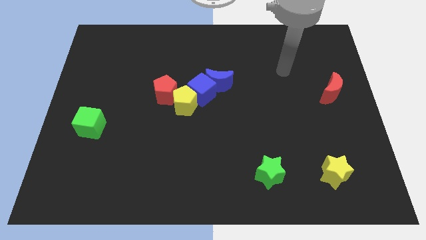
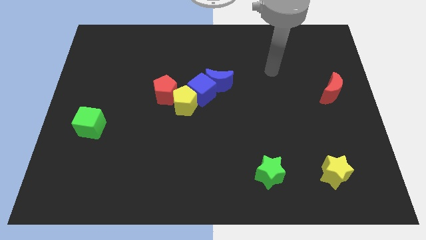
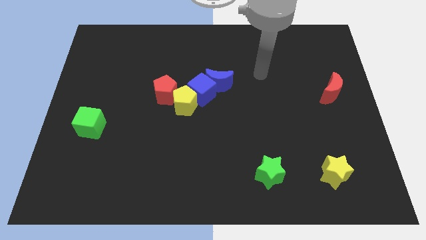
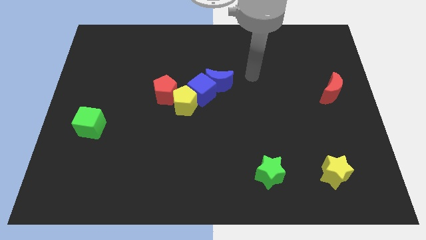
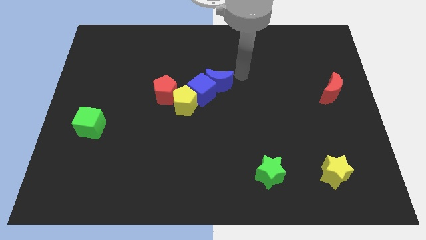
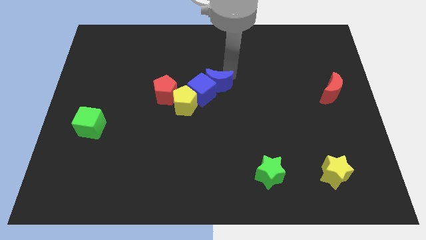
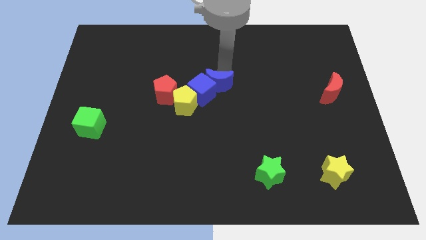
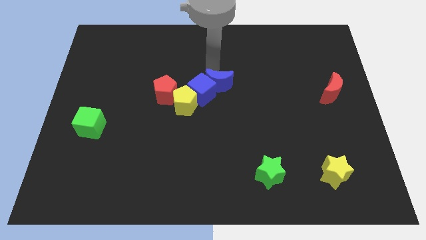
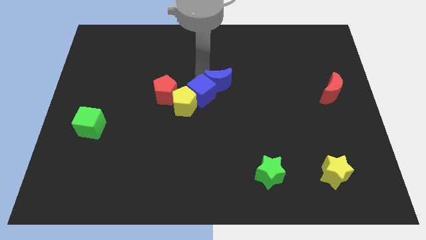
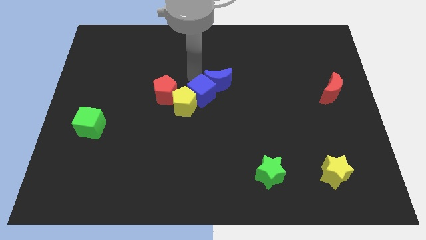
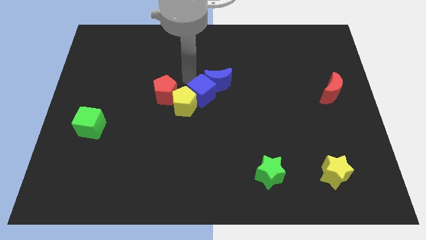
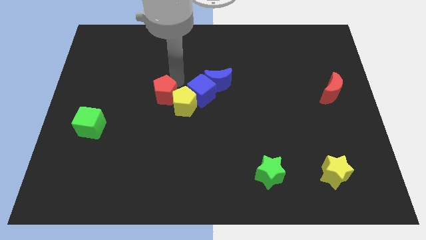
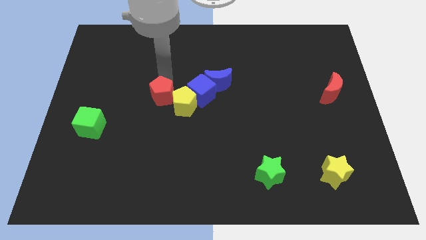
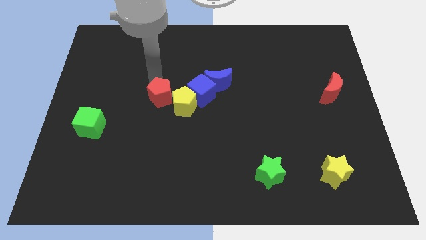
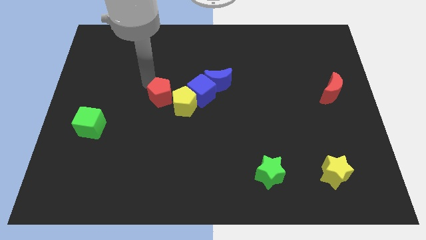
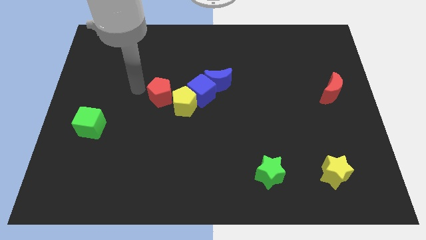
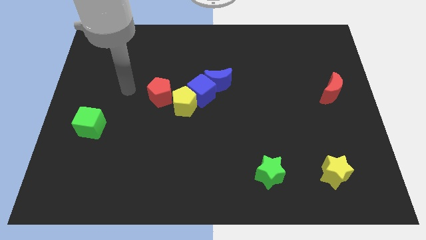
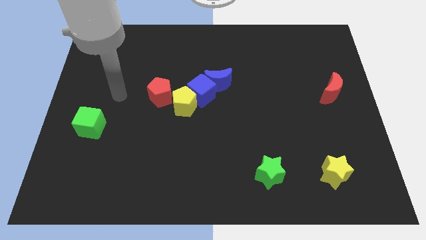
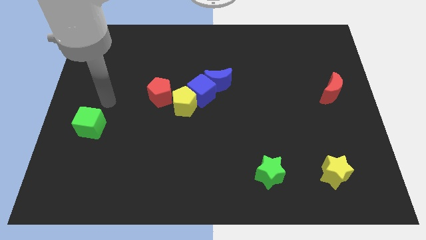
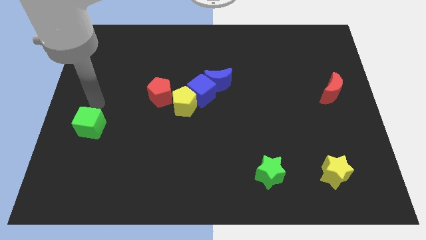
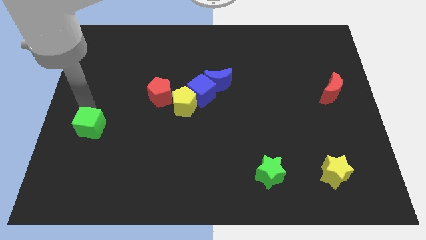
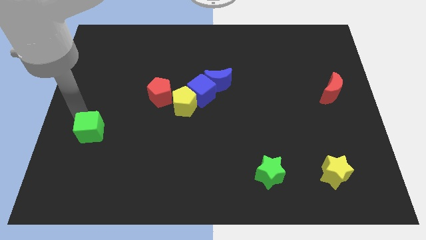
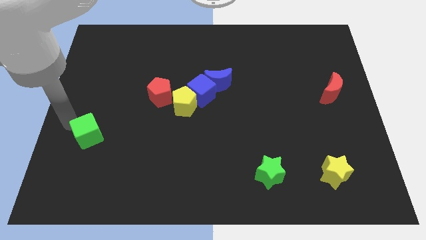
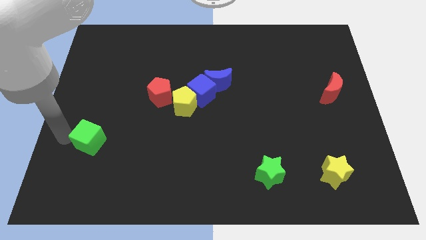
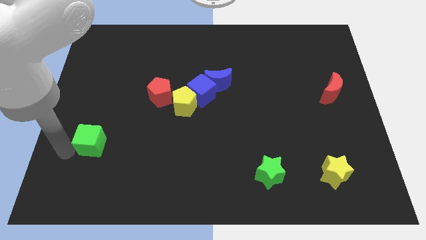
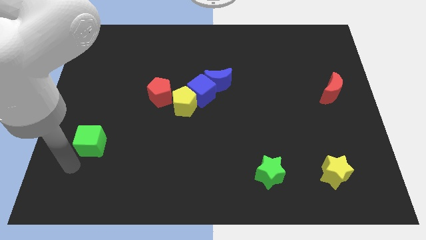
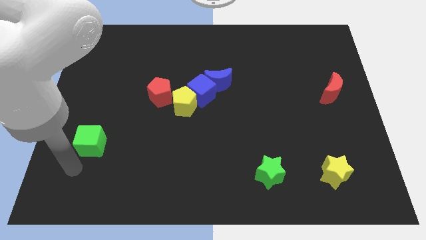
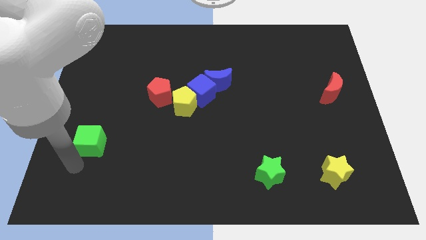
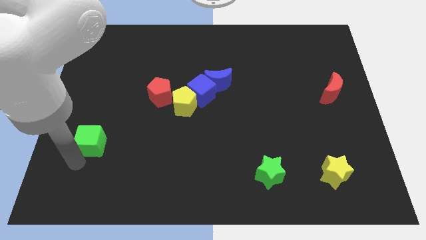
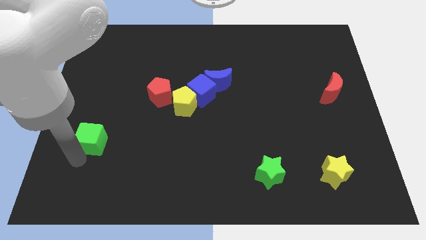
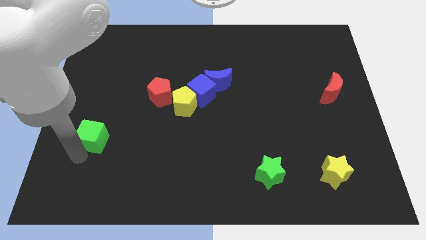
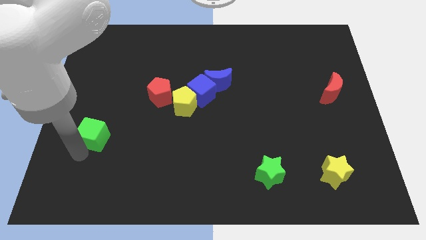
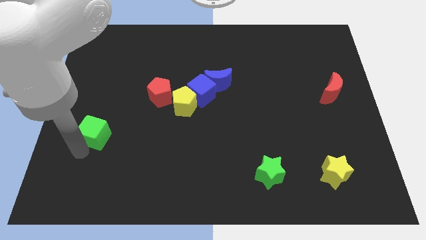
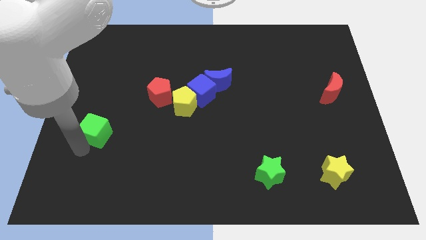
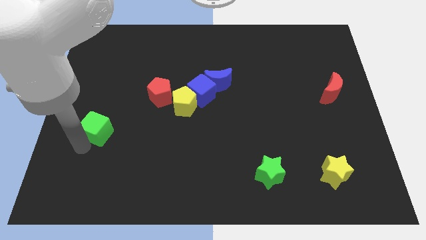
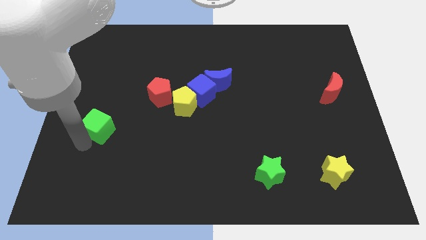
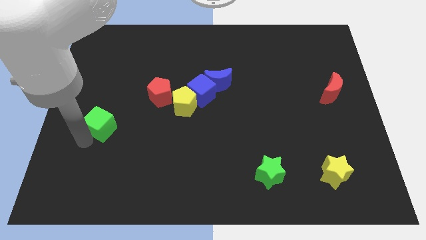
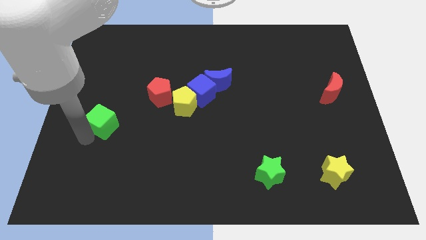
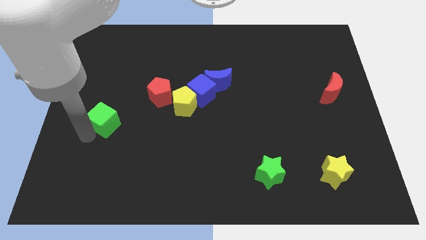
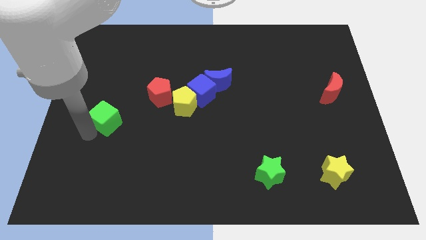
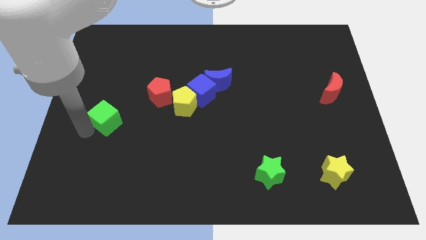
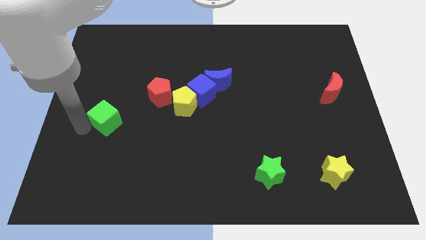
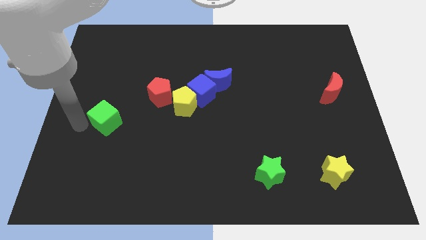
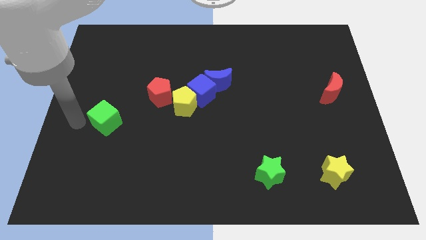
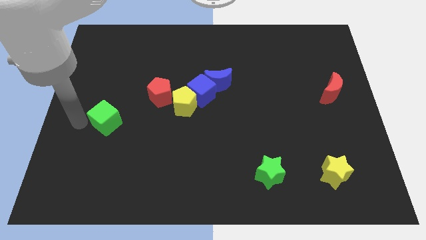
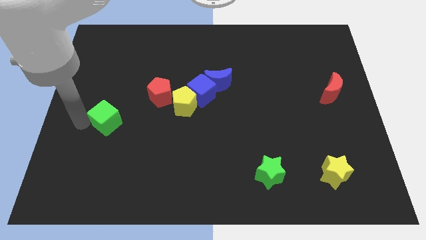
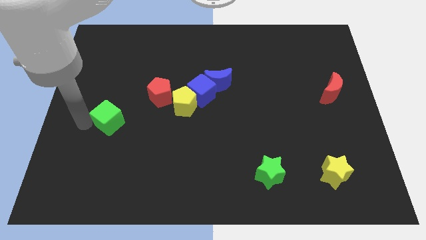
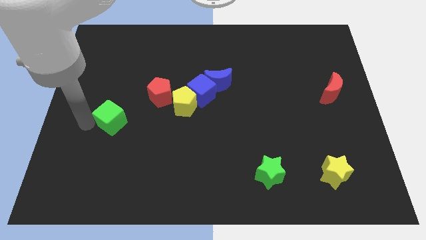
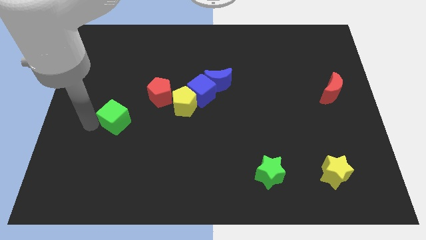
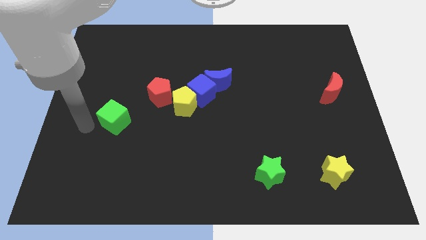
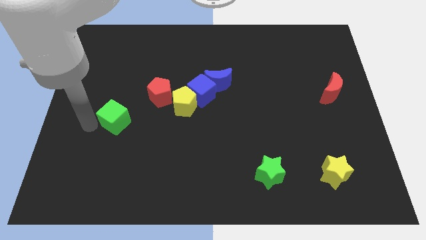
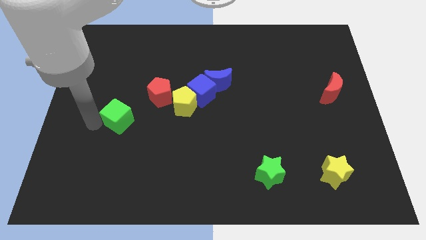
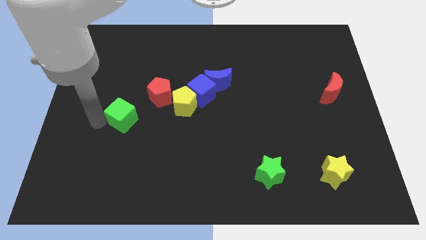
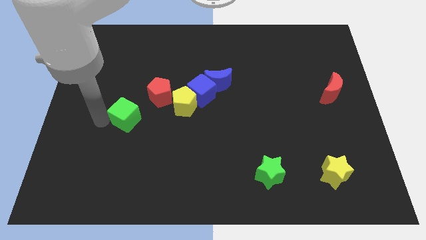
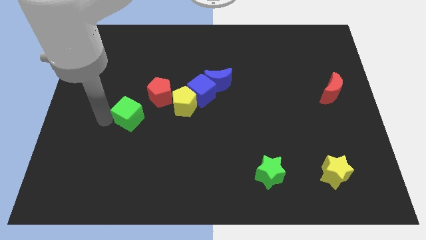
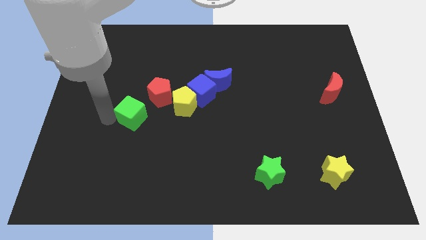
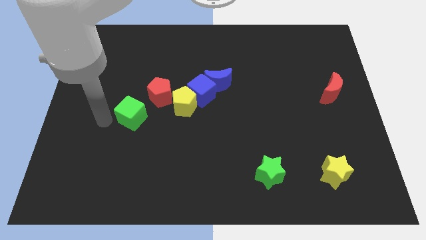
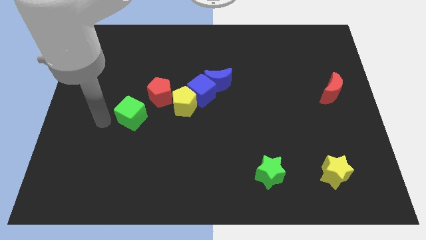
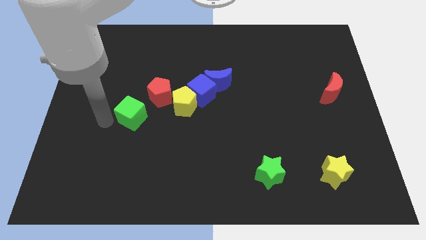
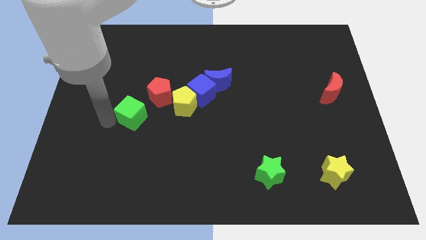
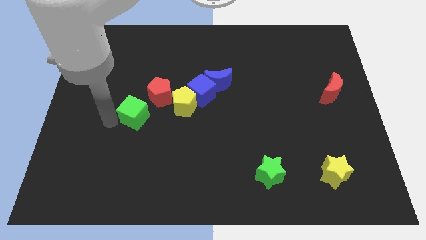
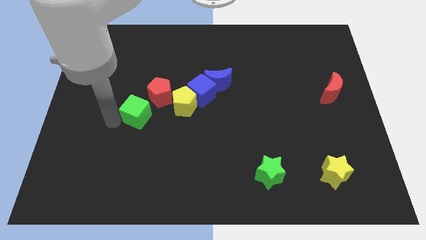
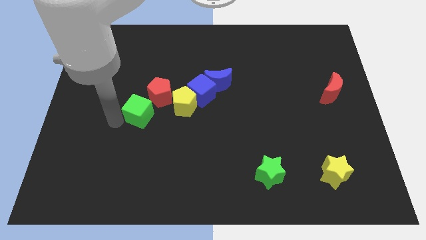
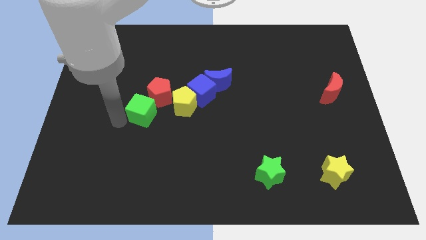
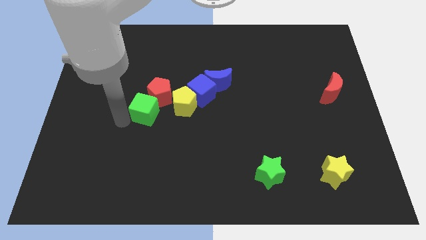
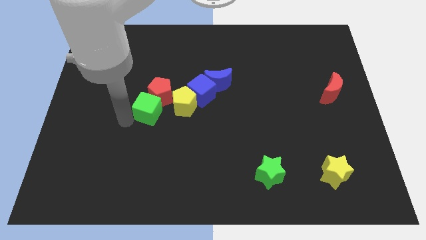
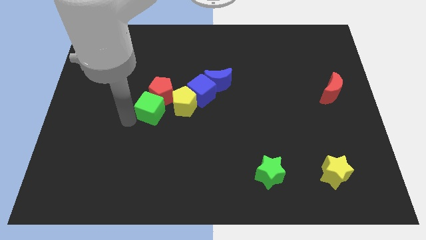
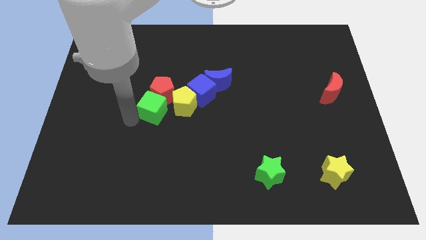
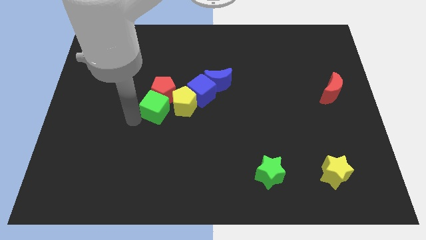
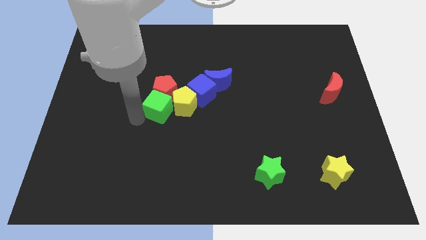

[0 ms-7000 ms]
slide the green cube towards the yellow pentagon
